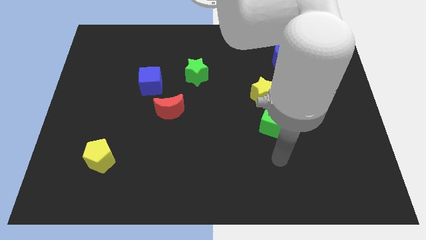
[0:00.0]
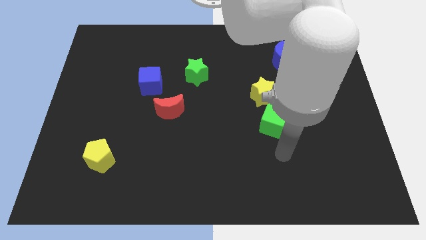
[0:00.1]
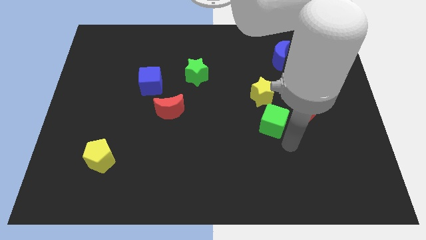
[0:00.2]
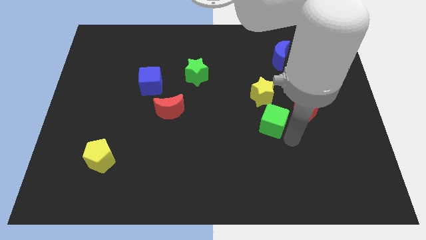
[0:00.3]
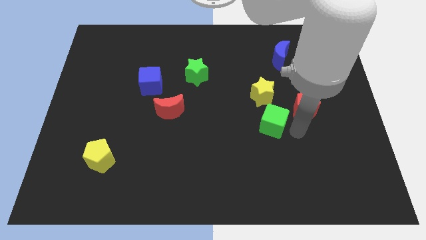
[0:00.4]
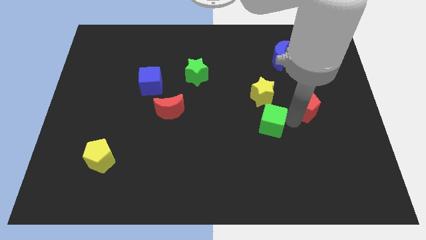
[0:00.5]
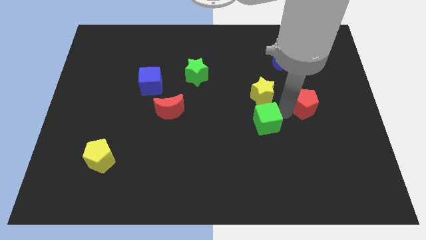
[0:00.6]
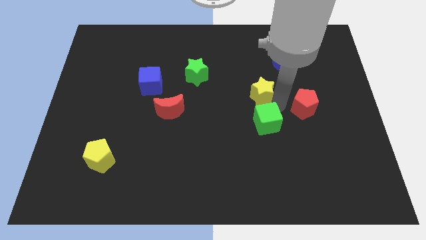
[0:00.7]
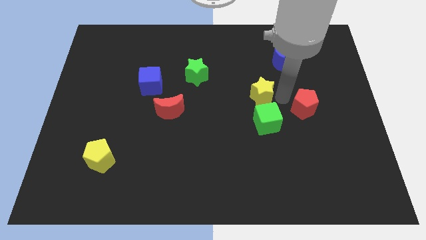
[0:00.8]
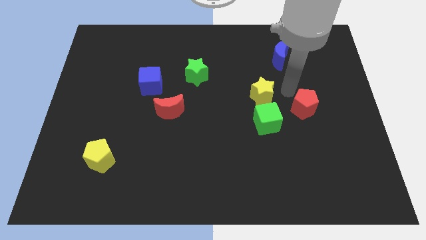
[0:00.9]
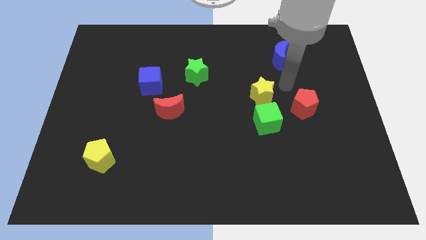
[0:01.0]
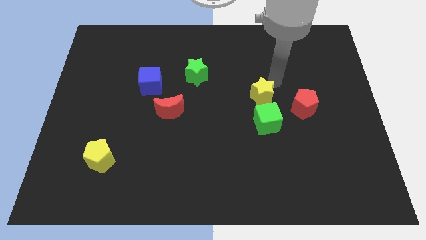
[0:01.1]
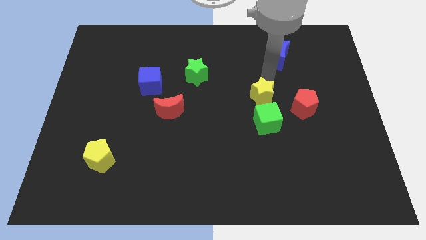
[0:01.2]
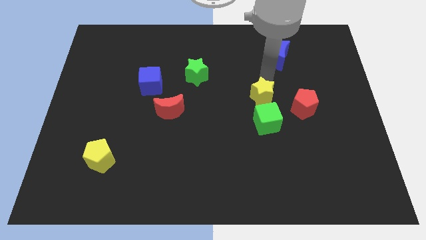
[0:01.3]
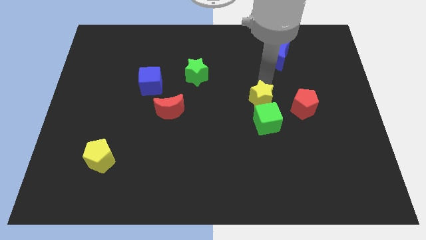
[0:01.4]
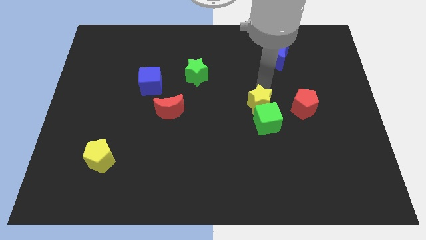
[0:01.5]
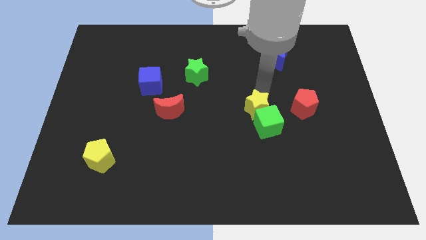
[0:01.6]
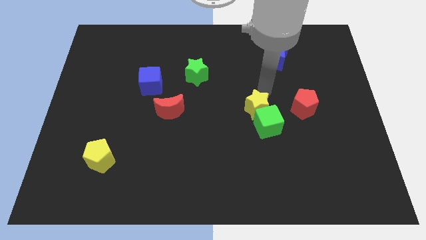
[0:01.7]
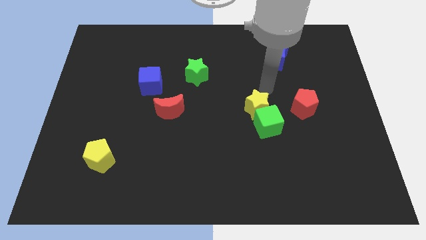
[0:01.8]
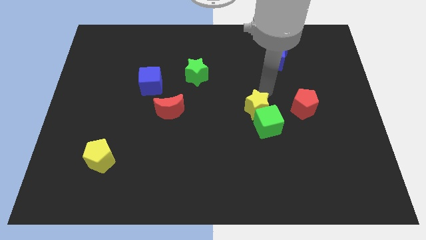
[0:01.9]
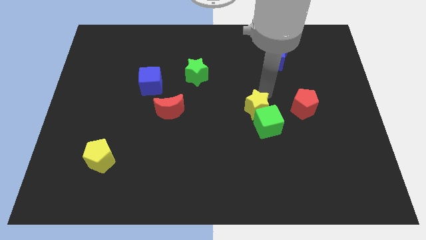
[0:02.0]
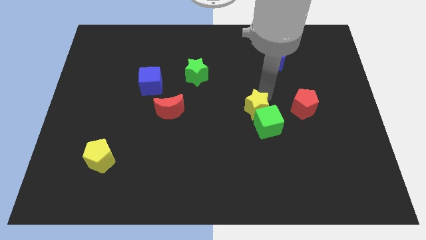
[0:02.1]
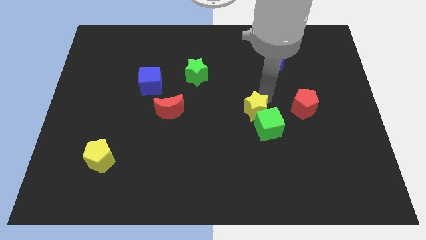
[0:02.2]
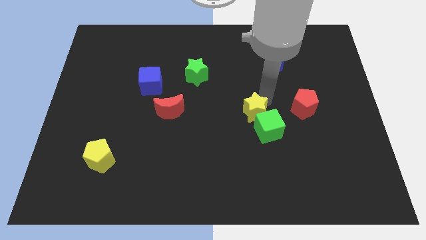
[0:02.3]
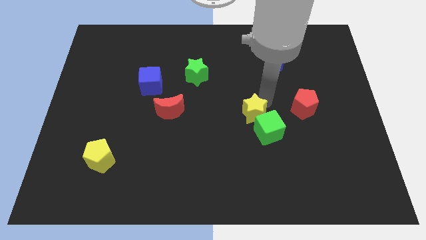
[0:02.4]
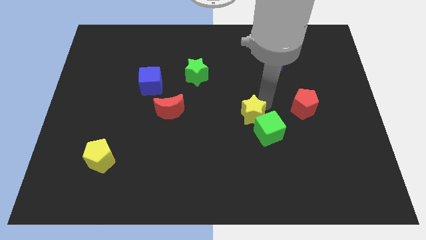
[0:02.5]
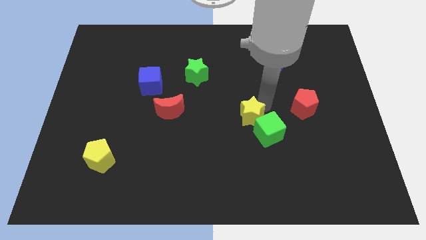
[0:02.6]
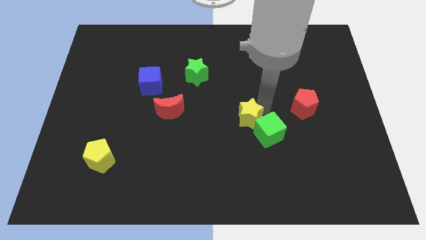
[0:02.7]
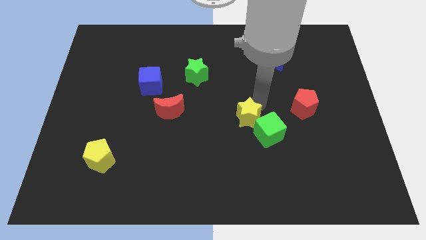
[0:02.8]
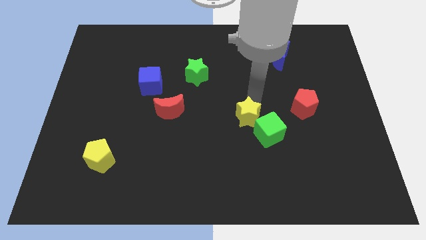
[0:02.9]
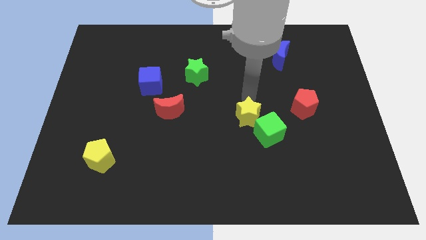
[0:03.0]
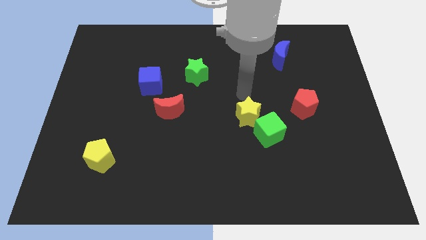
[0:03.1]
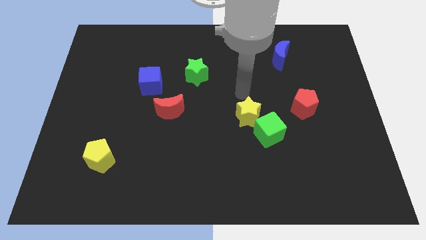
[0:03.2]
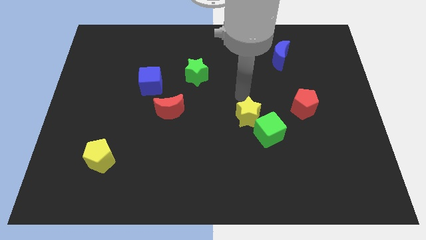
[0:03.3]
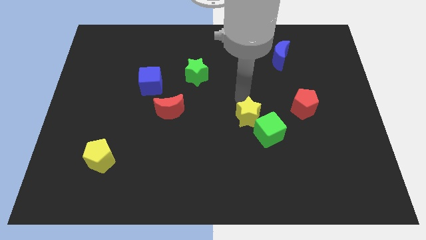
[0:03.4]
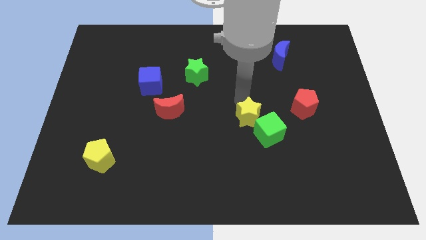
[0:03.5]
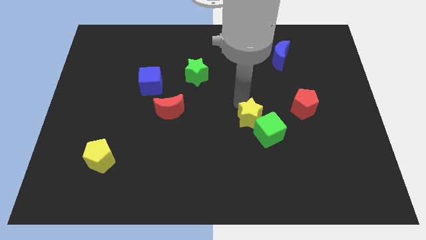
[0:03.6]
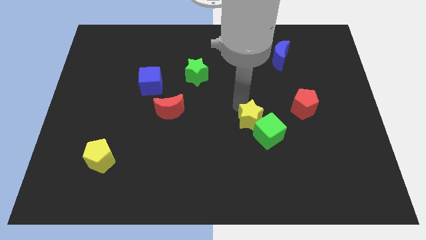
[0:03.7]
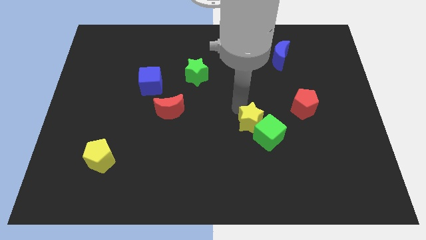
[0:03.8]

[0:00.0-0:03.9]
push the yellow star somewhat down

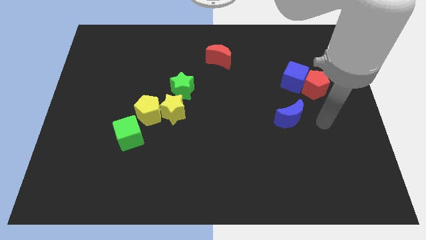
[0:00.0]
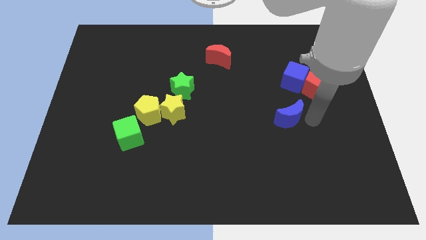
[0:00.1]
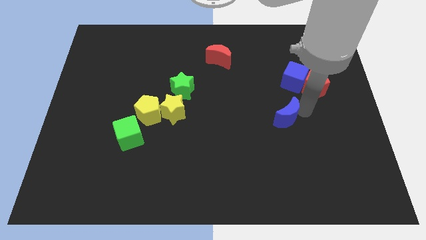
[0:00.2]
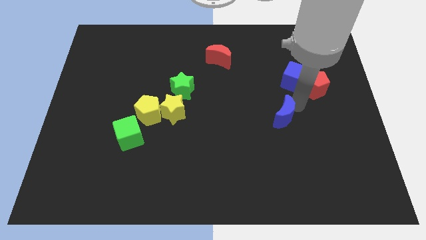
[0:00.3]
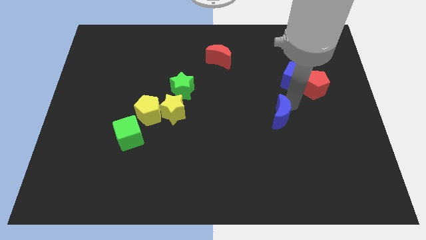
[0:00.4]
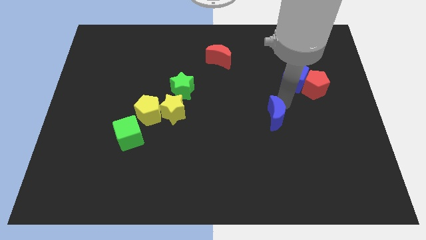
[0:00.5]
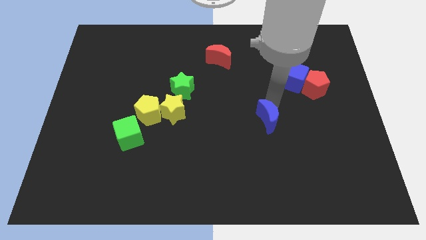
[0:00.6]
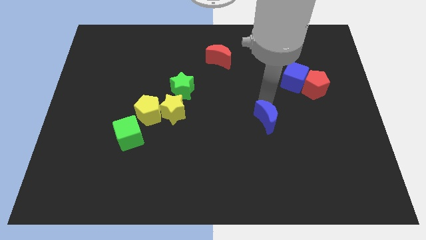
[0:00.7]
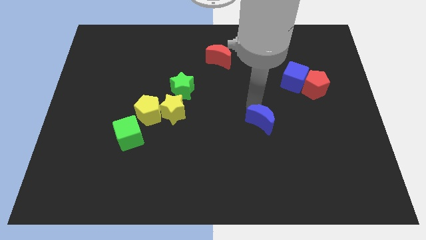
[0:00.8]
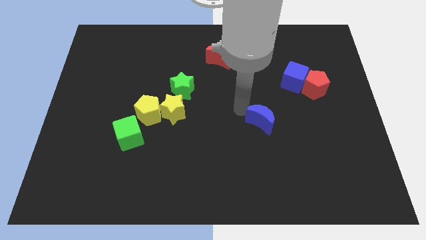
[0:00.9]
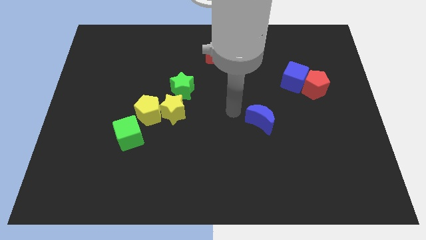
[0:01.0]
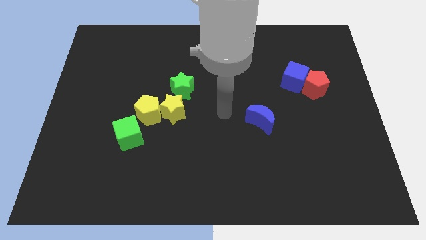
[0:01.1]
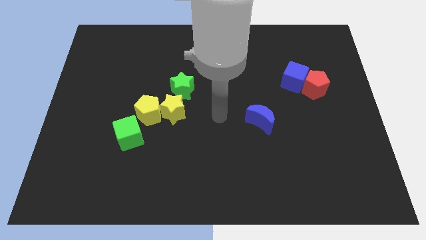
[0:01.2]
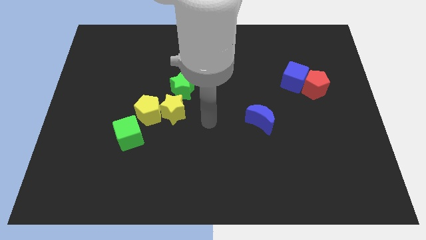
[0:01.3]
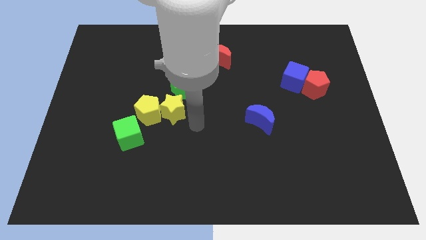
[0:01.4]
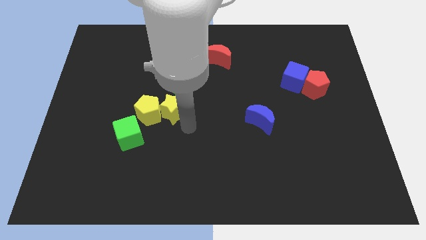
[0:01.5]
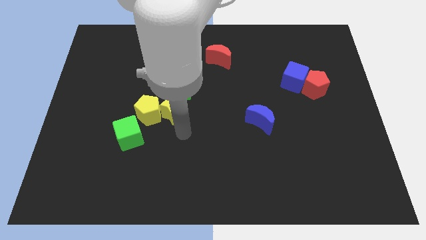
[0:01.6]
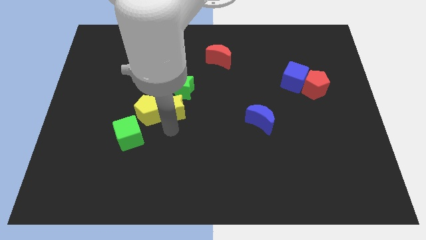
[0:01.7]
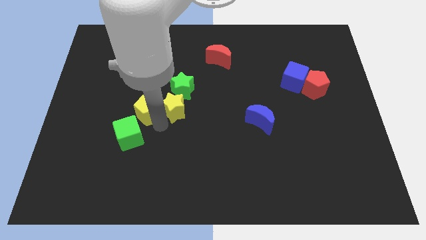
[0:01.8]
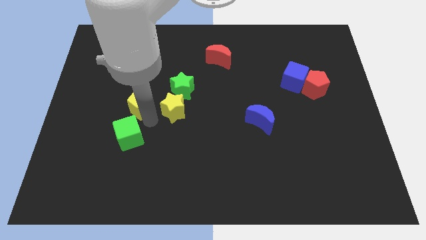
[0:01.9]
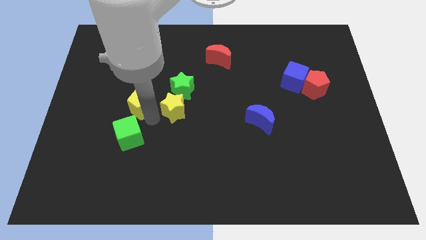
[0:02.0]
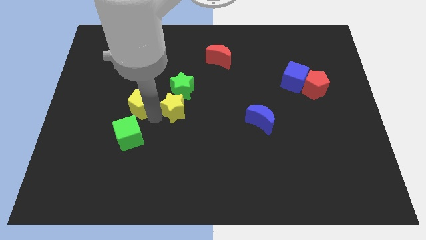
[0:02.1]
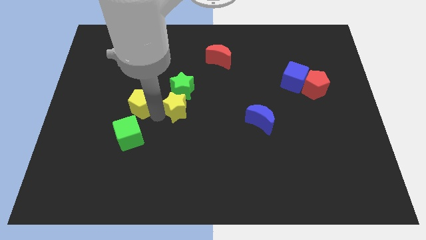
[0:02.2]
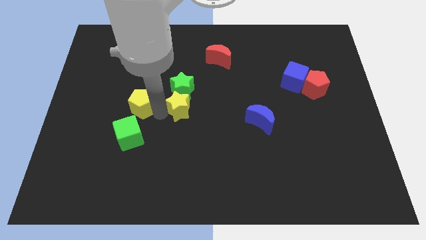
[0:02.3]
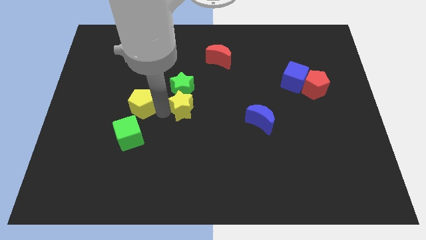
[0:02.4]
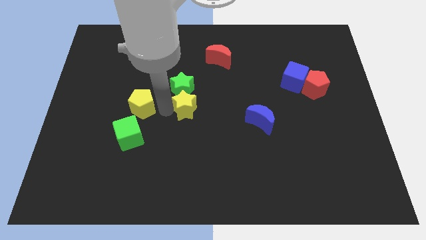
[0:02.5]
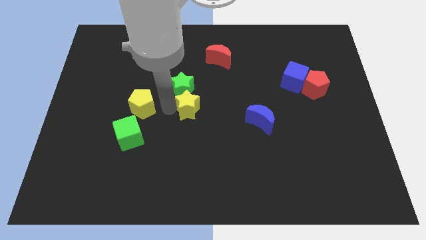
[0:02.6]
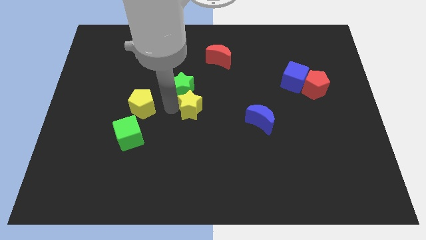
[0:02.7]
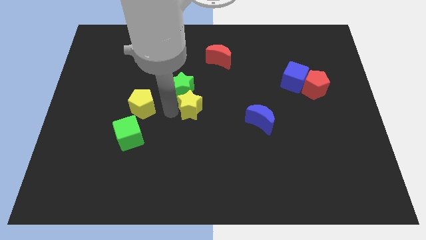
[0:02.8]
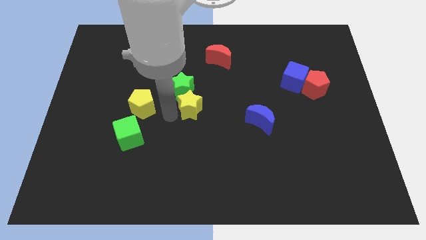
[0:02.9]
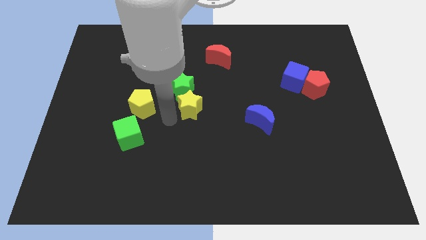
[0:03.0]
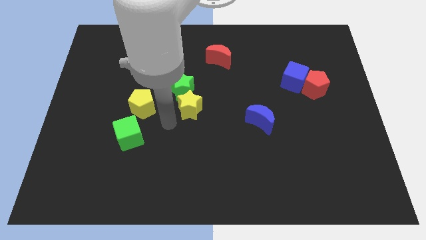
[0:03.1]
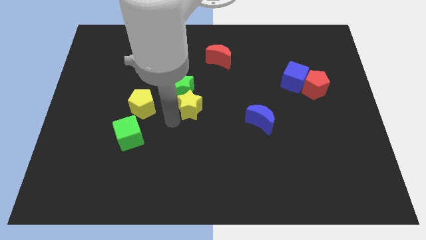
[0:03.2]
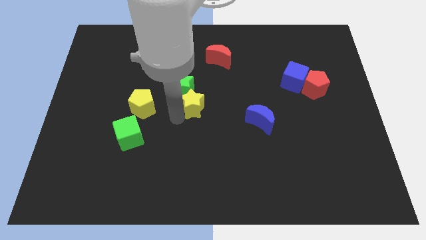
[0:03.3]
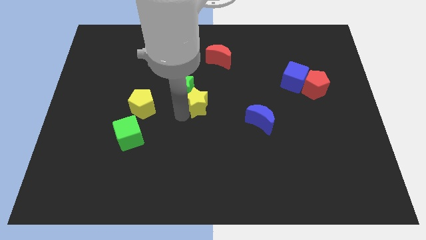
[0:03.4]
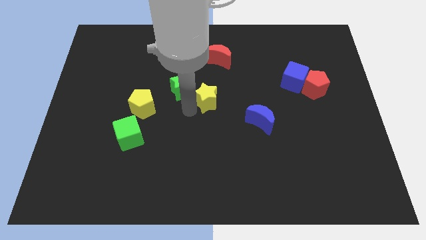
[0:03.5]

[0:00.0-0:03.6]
move the yellow star slightly upwards and right

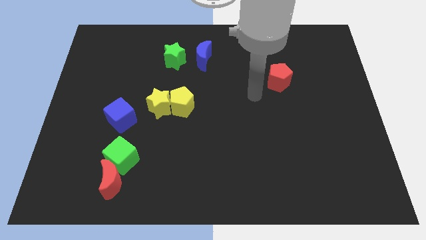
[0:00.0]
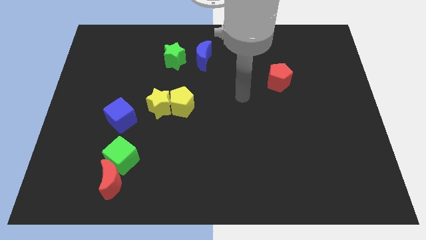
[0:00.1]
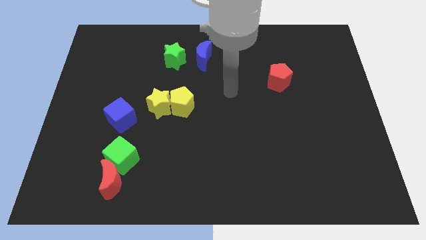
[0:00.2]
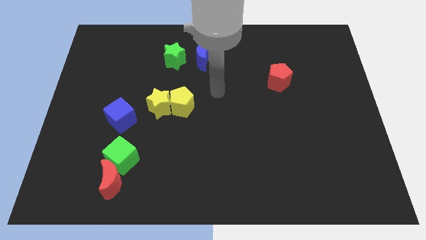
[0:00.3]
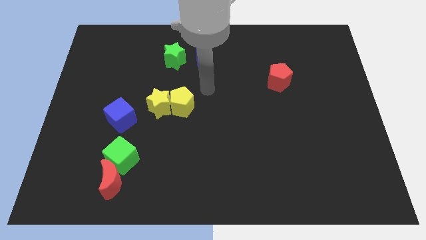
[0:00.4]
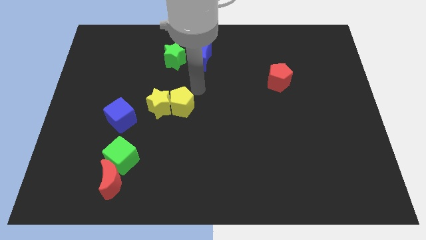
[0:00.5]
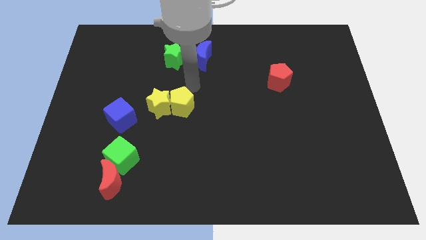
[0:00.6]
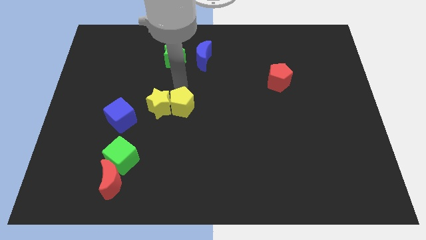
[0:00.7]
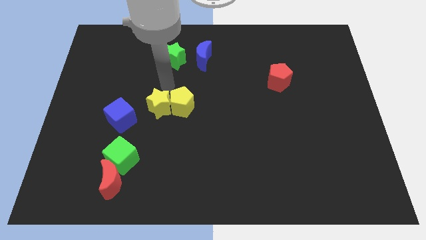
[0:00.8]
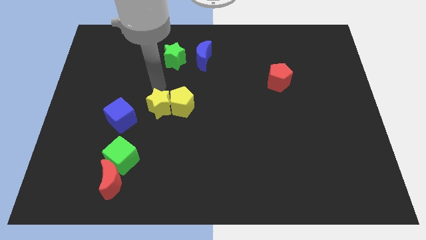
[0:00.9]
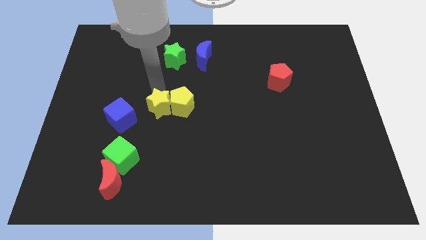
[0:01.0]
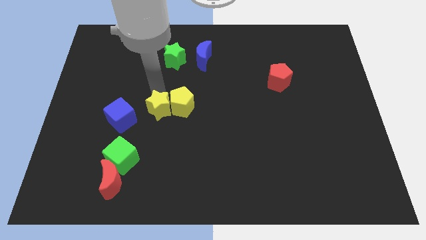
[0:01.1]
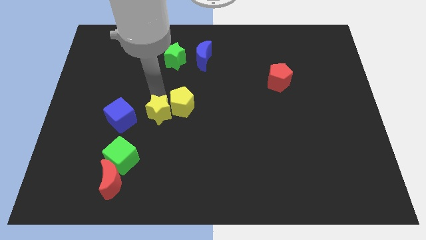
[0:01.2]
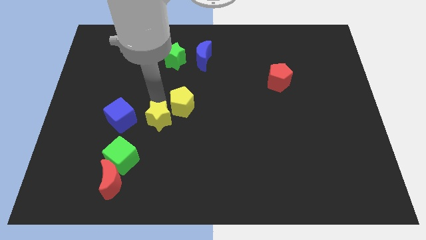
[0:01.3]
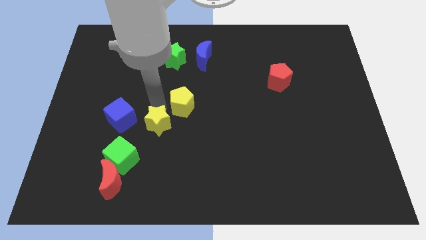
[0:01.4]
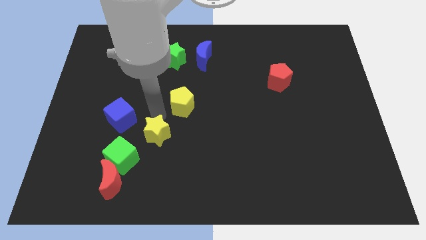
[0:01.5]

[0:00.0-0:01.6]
slide the yellow star down a little
